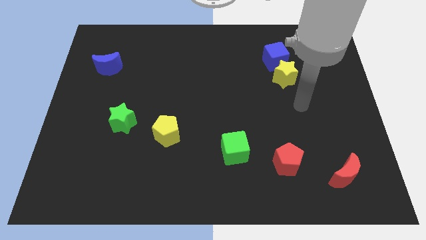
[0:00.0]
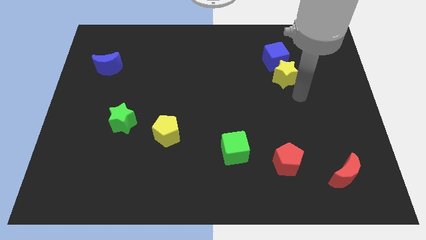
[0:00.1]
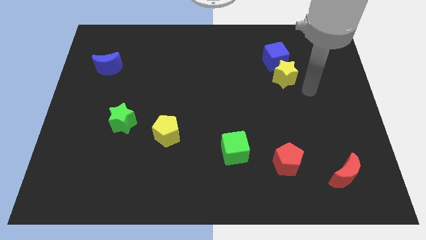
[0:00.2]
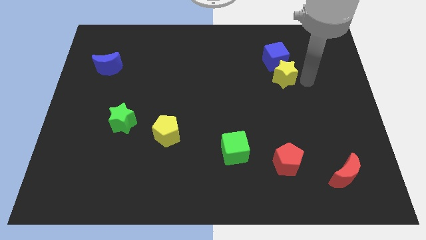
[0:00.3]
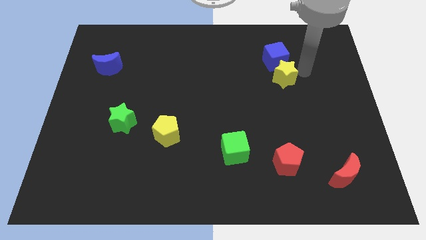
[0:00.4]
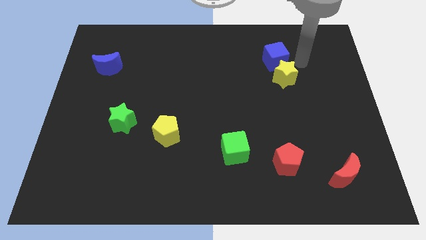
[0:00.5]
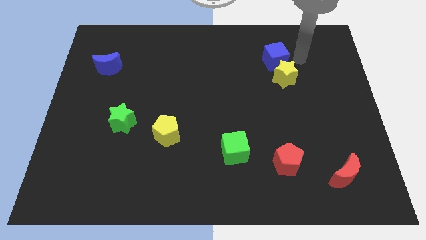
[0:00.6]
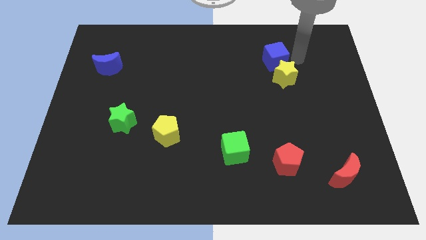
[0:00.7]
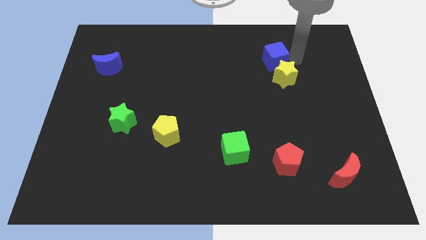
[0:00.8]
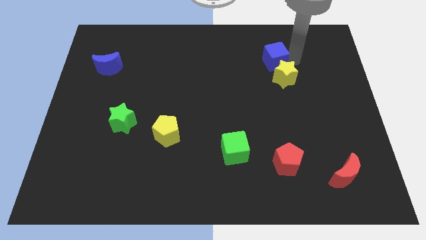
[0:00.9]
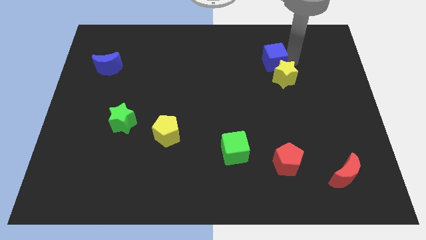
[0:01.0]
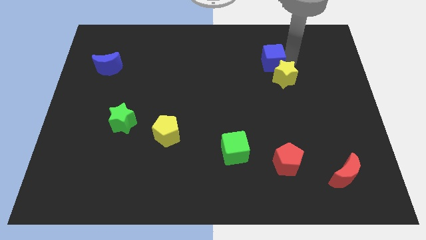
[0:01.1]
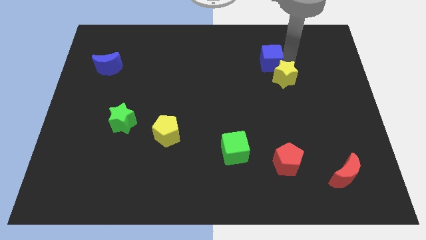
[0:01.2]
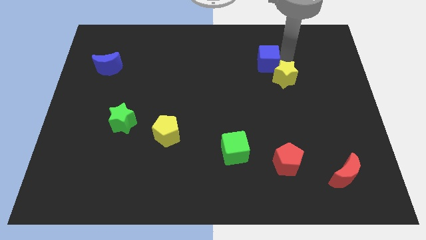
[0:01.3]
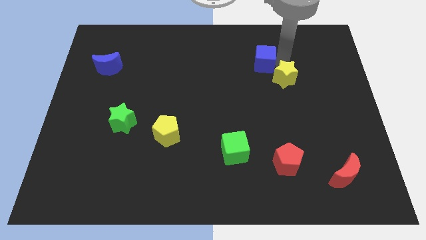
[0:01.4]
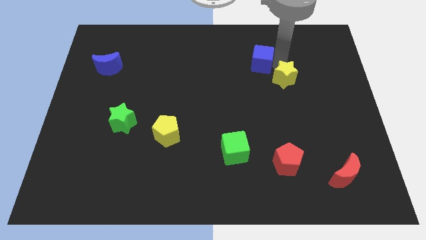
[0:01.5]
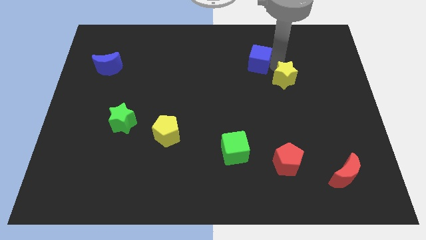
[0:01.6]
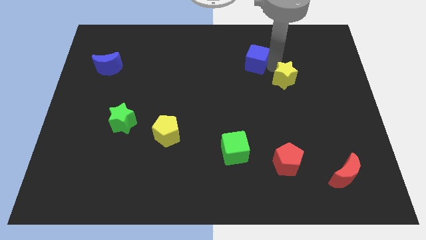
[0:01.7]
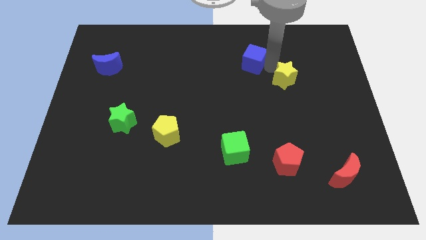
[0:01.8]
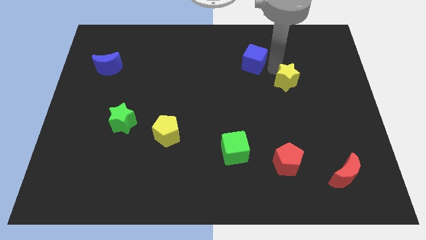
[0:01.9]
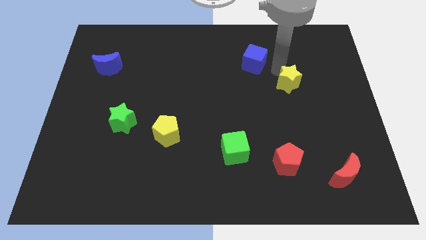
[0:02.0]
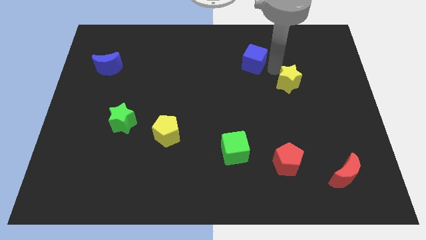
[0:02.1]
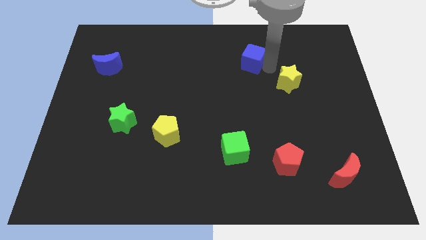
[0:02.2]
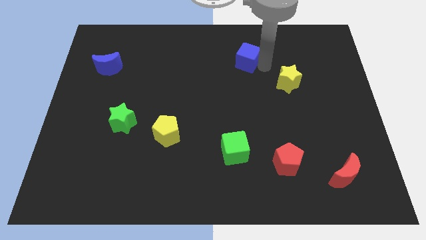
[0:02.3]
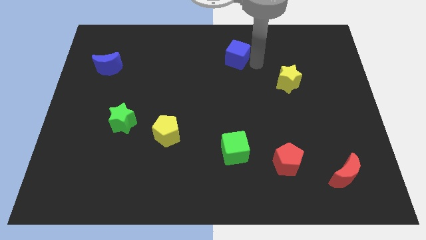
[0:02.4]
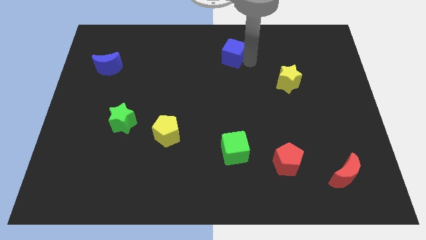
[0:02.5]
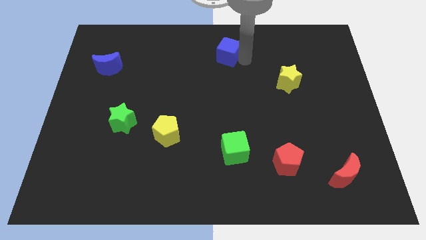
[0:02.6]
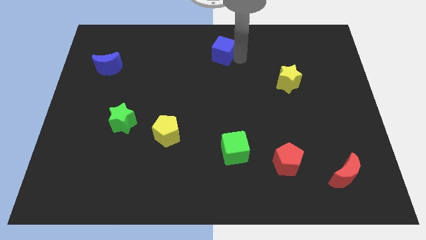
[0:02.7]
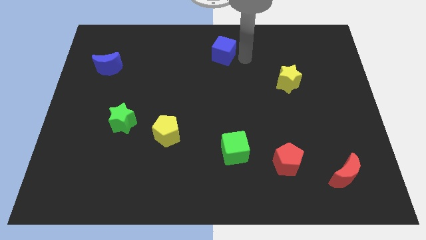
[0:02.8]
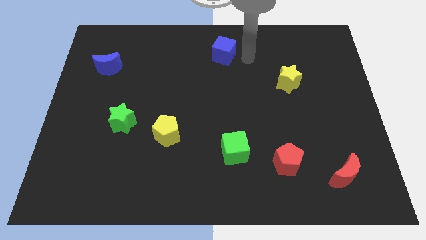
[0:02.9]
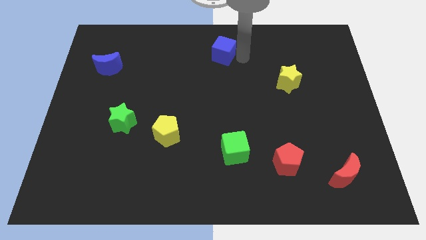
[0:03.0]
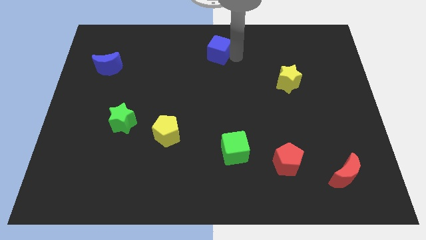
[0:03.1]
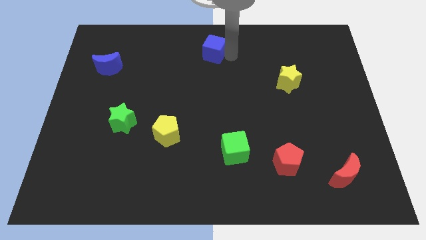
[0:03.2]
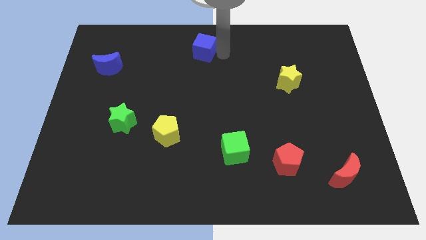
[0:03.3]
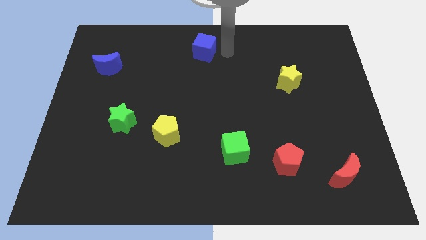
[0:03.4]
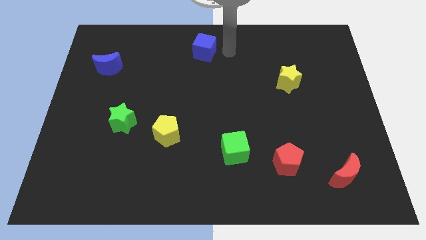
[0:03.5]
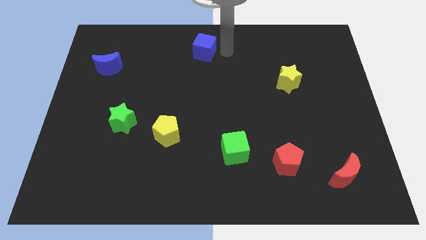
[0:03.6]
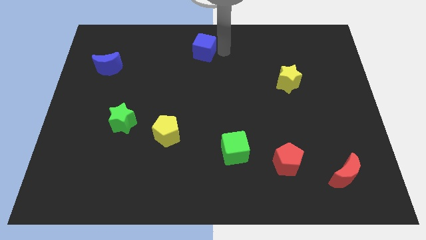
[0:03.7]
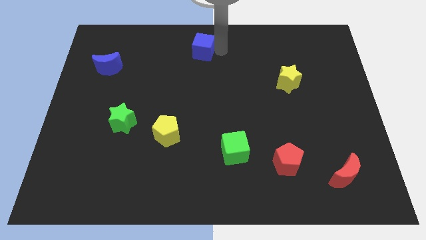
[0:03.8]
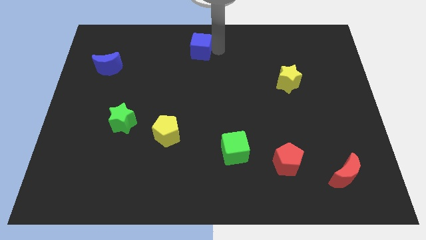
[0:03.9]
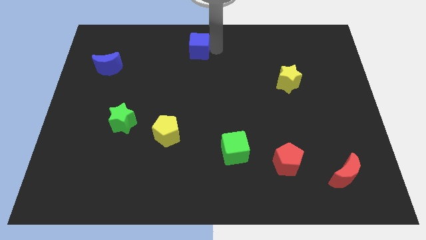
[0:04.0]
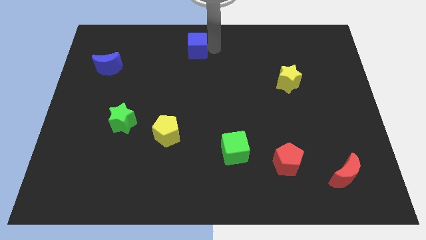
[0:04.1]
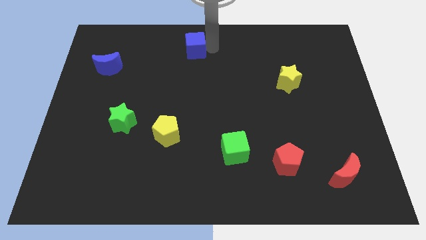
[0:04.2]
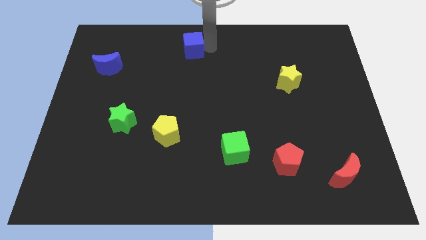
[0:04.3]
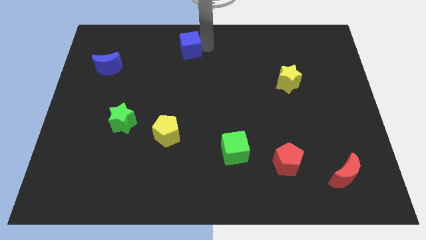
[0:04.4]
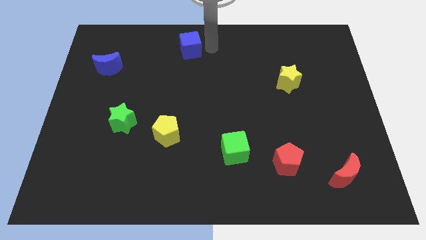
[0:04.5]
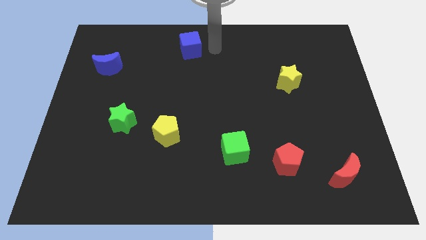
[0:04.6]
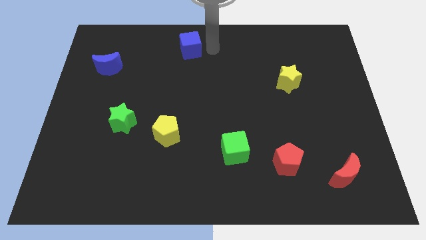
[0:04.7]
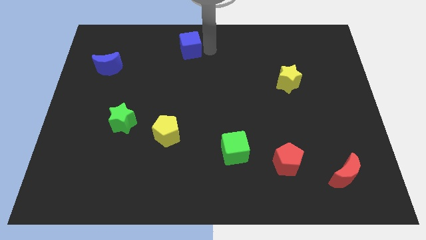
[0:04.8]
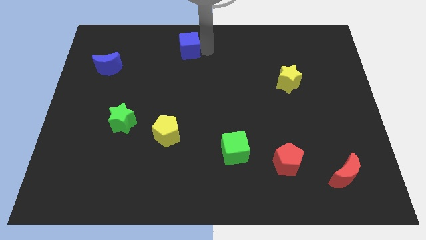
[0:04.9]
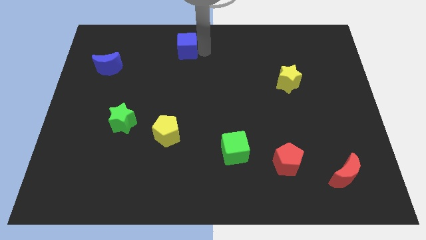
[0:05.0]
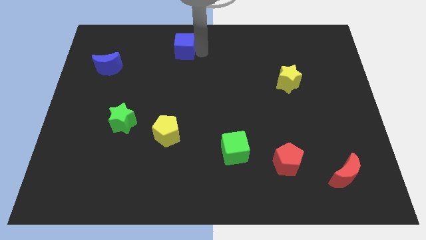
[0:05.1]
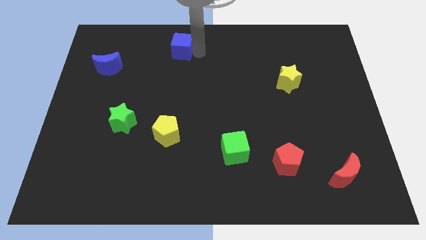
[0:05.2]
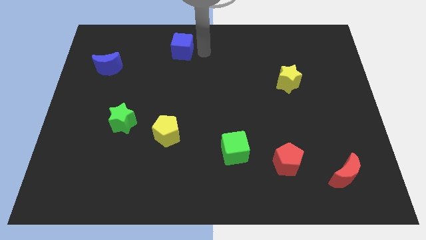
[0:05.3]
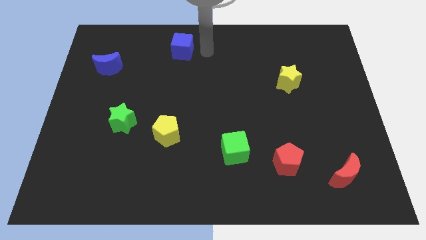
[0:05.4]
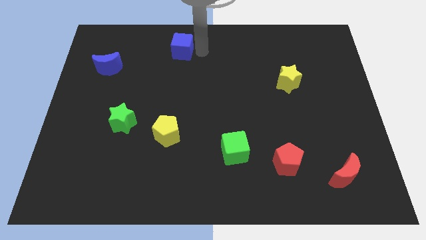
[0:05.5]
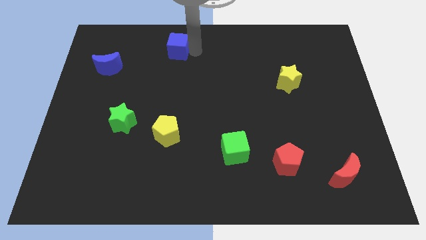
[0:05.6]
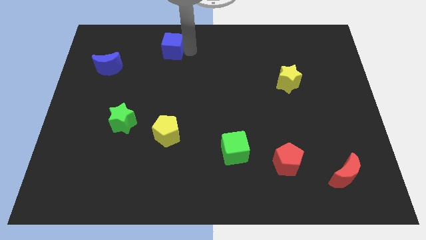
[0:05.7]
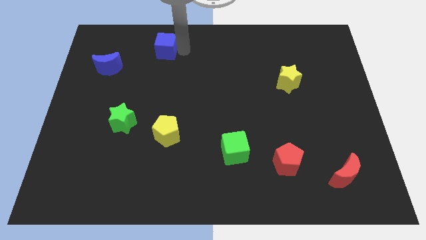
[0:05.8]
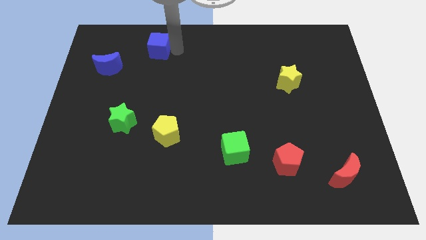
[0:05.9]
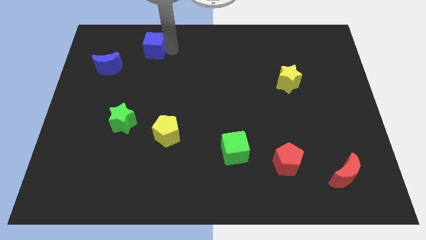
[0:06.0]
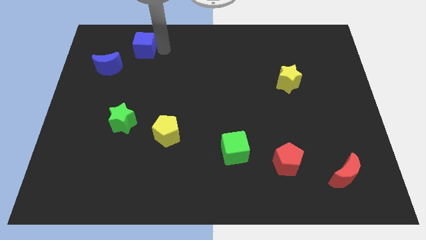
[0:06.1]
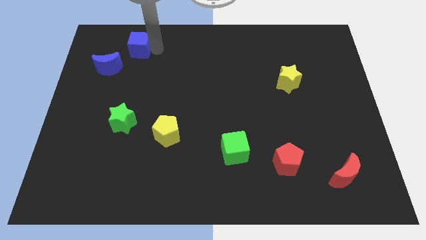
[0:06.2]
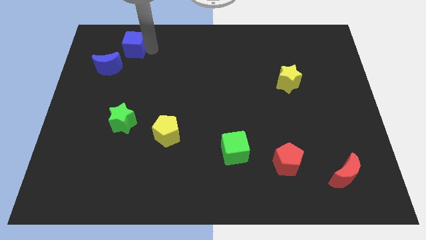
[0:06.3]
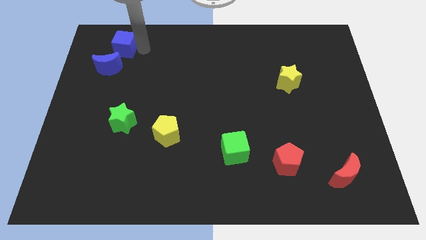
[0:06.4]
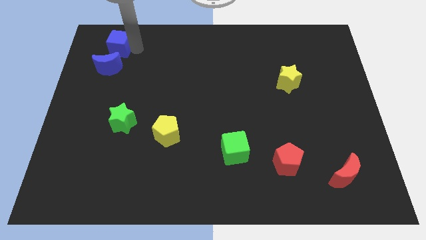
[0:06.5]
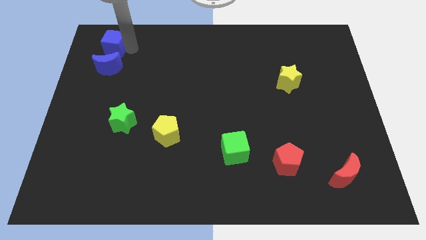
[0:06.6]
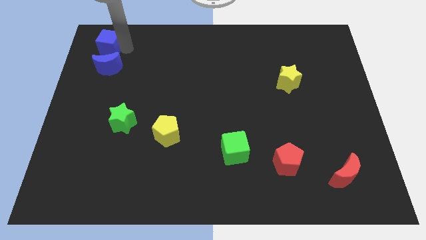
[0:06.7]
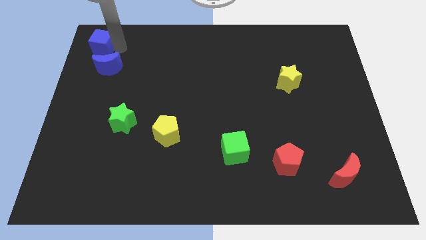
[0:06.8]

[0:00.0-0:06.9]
slide the blue cube to the top left

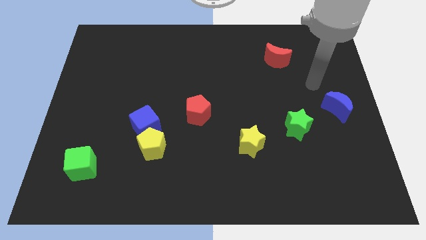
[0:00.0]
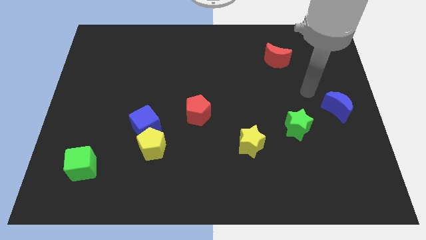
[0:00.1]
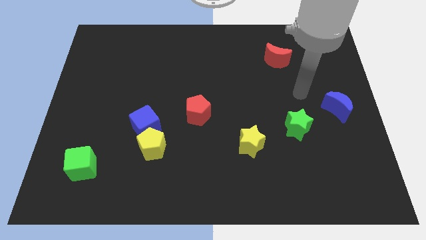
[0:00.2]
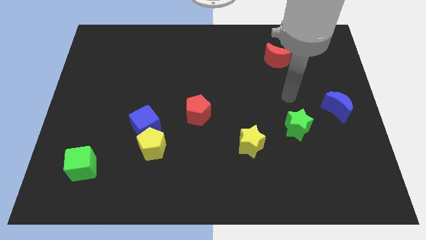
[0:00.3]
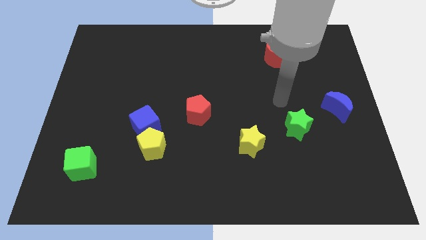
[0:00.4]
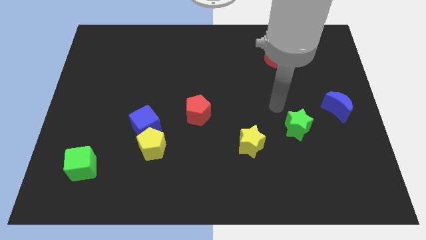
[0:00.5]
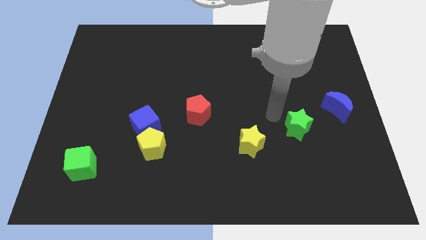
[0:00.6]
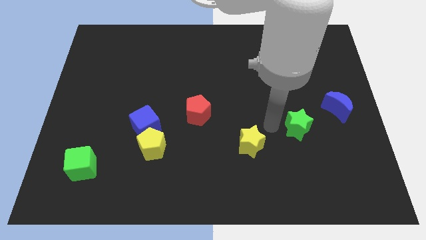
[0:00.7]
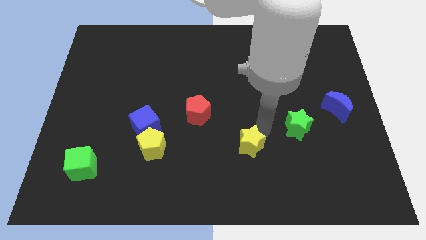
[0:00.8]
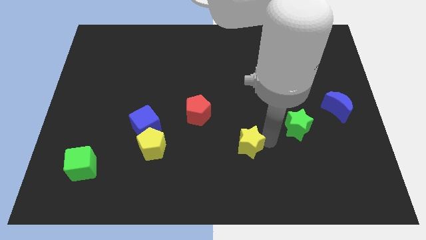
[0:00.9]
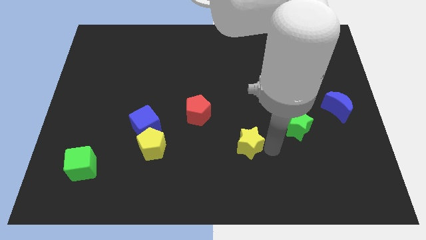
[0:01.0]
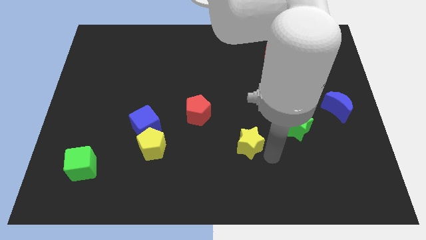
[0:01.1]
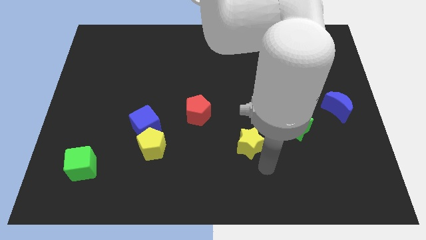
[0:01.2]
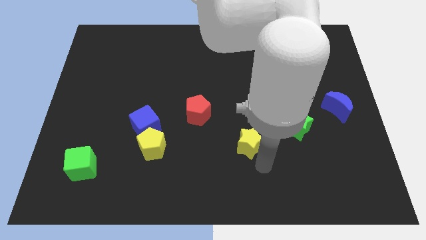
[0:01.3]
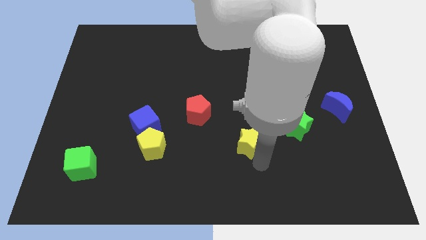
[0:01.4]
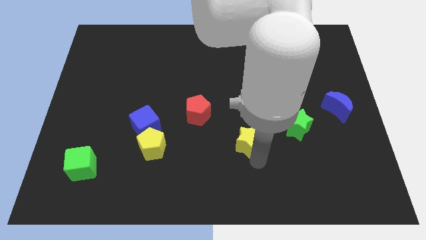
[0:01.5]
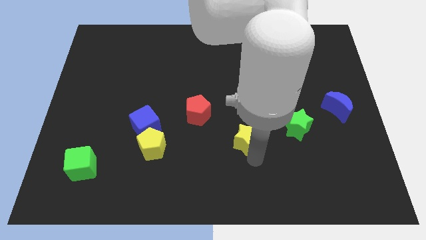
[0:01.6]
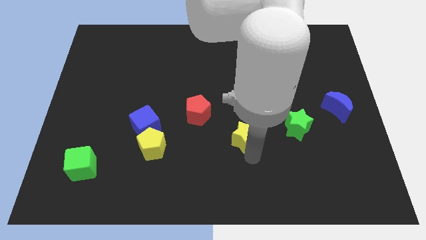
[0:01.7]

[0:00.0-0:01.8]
slide the yellow star to the middle of the board
